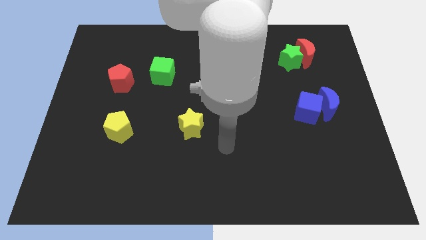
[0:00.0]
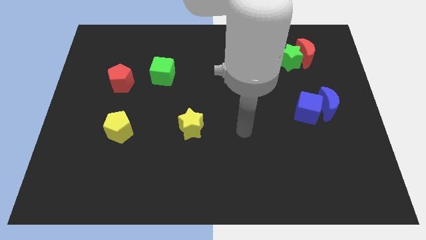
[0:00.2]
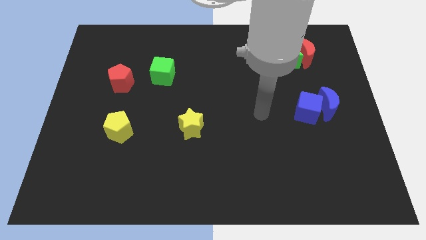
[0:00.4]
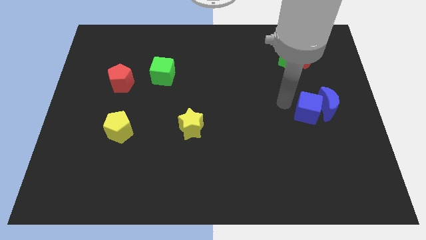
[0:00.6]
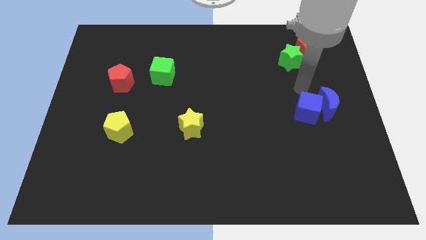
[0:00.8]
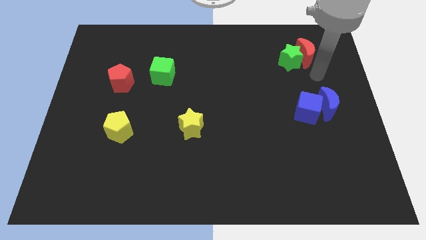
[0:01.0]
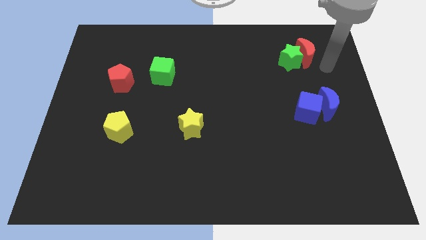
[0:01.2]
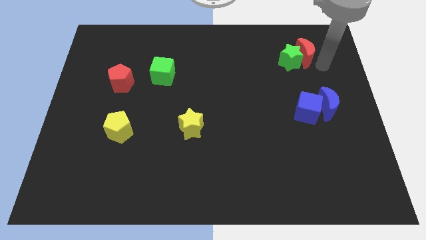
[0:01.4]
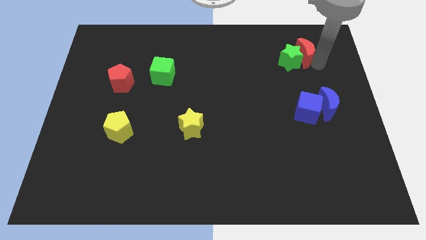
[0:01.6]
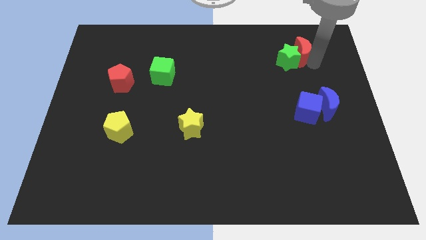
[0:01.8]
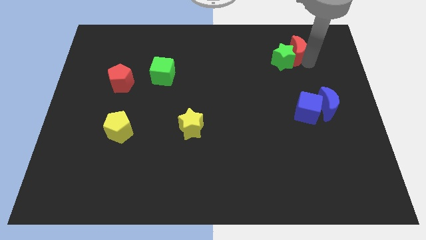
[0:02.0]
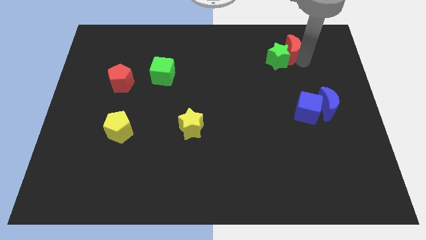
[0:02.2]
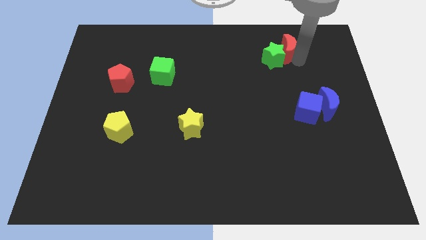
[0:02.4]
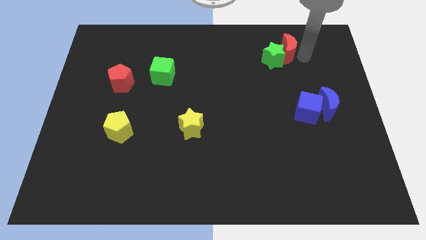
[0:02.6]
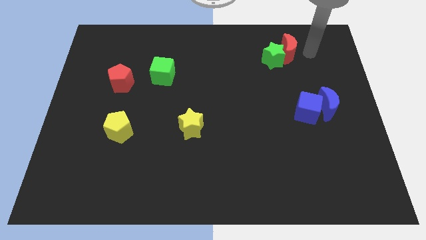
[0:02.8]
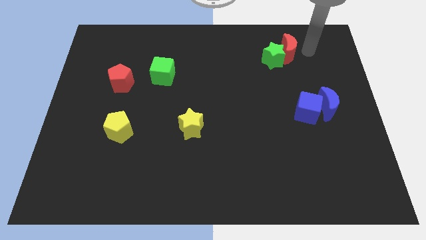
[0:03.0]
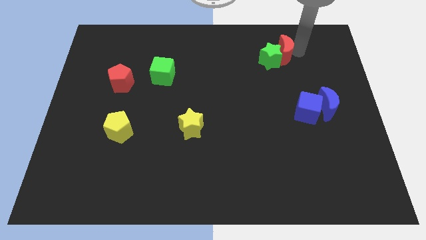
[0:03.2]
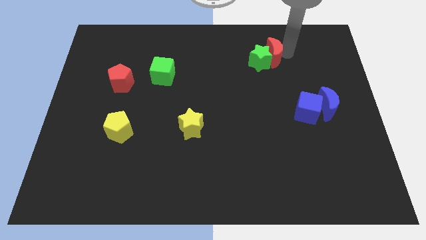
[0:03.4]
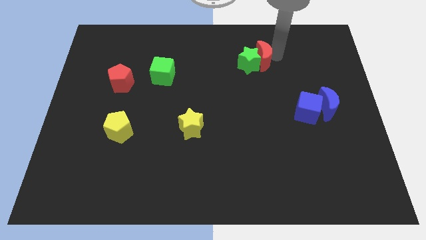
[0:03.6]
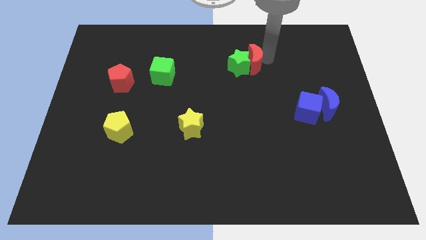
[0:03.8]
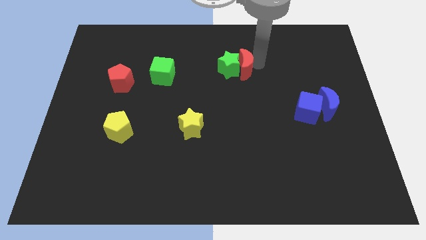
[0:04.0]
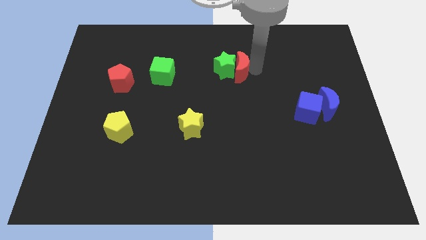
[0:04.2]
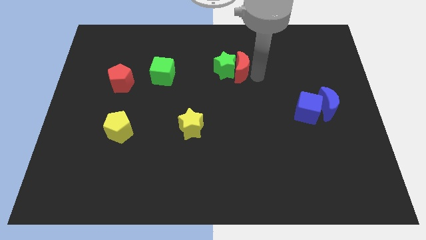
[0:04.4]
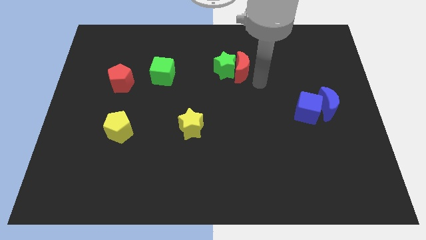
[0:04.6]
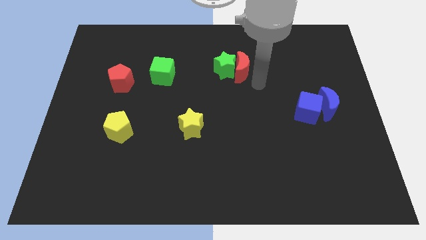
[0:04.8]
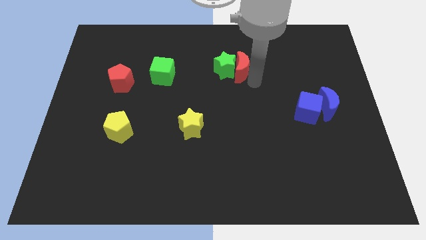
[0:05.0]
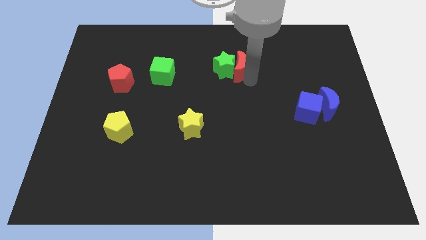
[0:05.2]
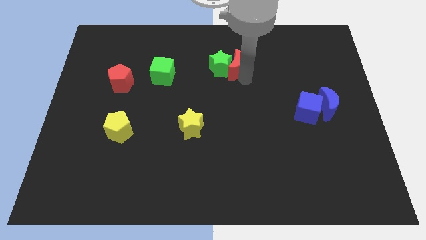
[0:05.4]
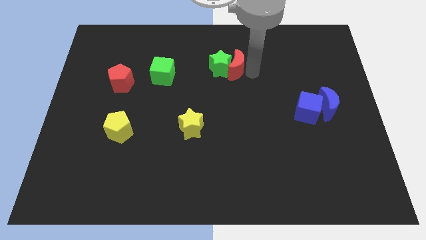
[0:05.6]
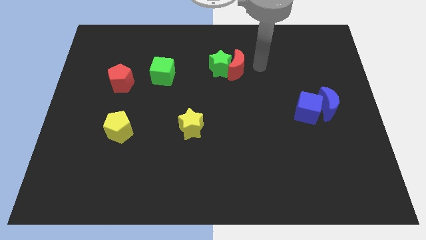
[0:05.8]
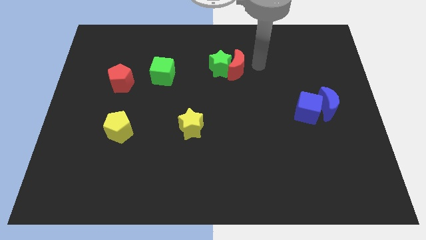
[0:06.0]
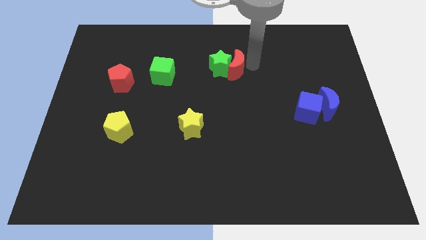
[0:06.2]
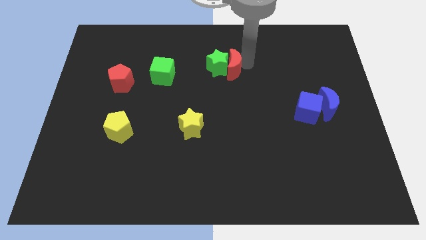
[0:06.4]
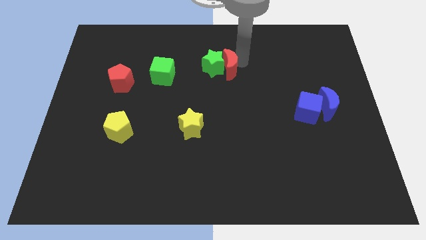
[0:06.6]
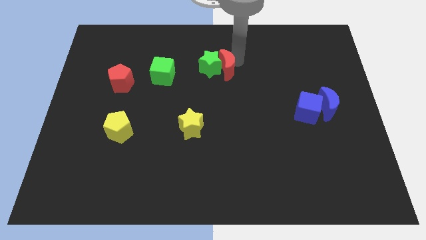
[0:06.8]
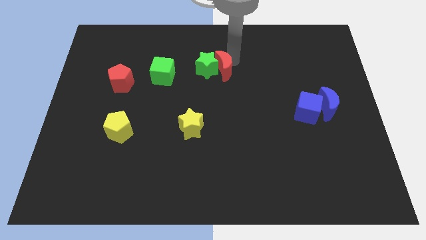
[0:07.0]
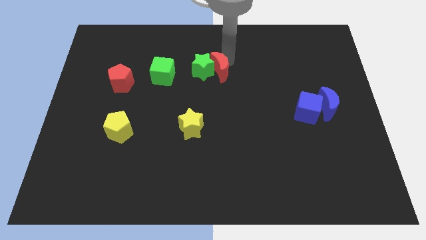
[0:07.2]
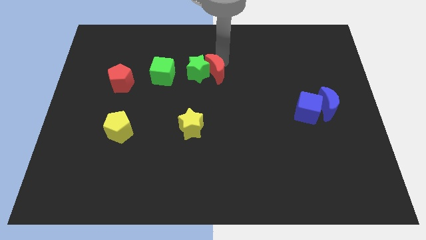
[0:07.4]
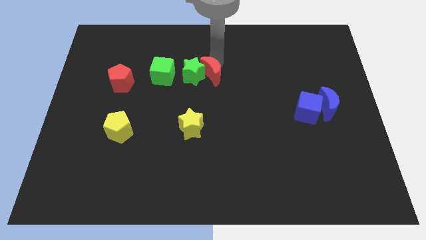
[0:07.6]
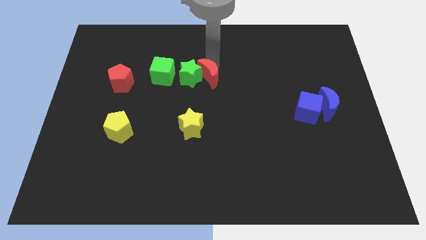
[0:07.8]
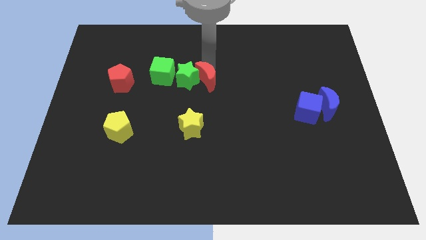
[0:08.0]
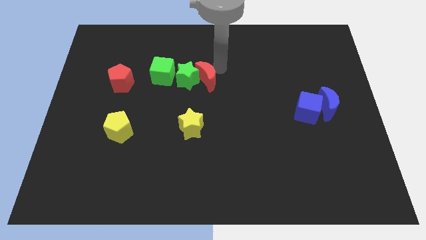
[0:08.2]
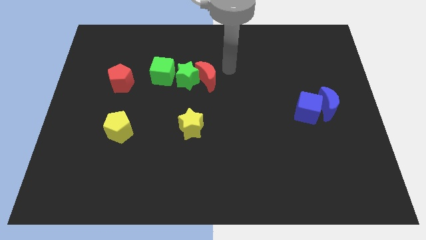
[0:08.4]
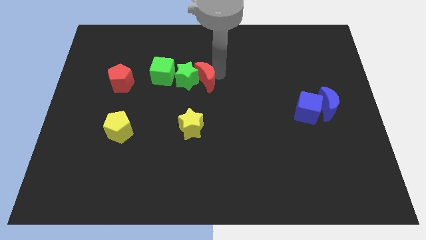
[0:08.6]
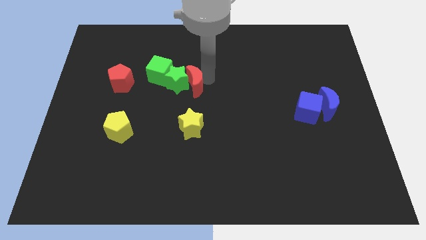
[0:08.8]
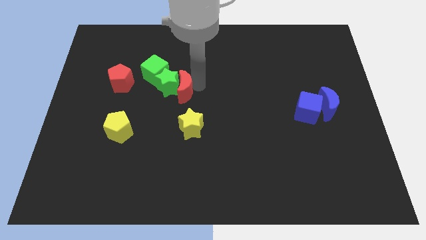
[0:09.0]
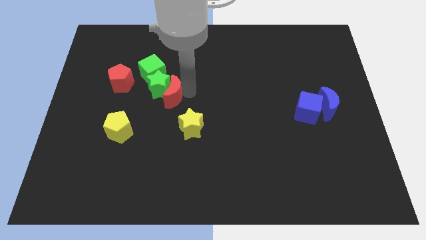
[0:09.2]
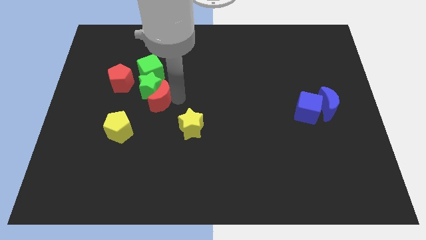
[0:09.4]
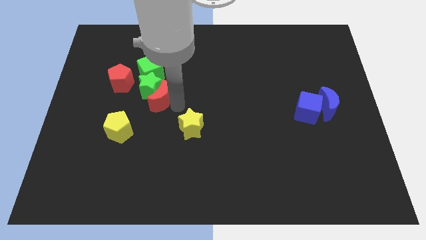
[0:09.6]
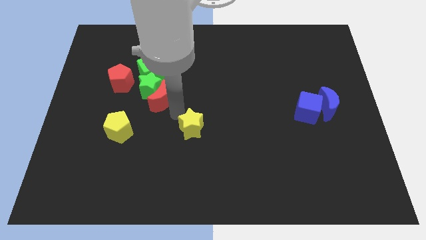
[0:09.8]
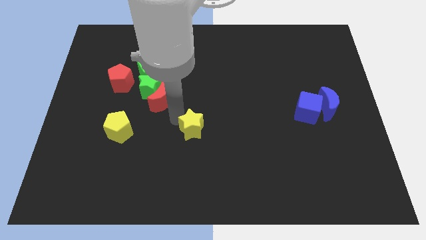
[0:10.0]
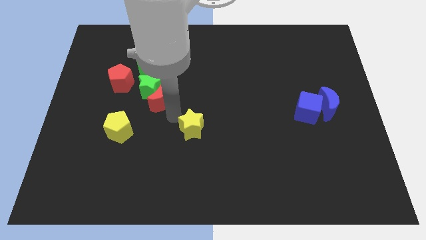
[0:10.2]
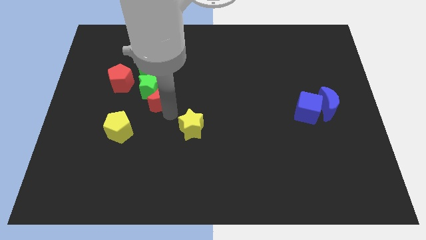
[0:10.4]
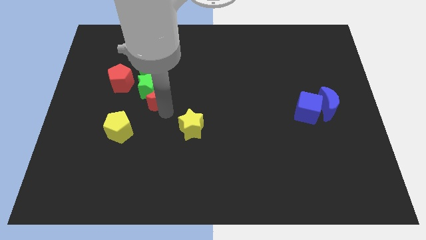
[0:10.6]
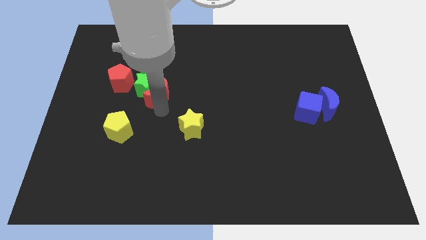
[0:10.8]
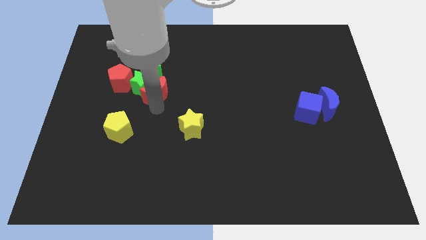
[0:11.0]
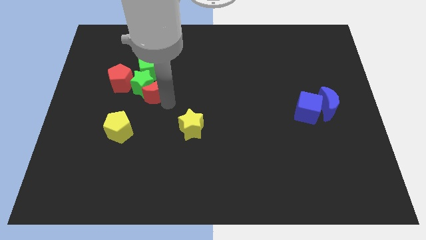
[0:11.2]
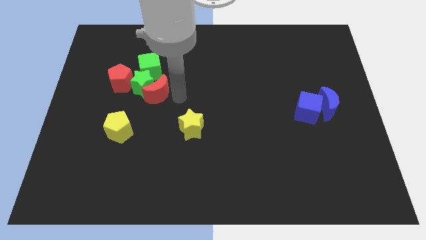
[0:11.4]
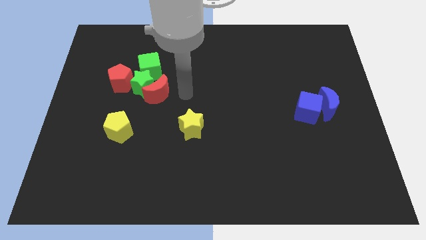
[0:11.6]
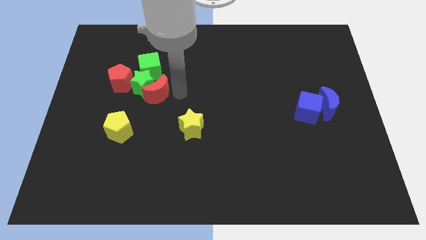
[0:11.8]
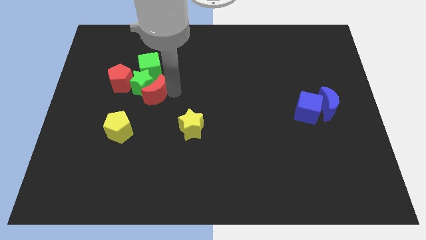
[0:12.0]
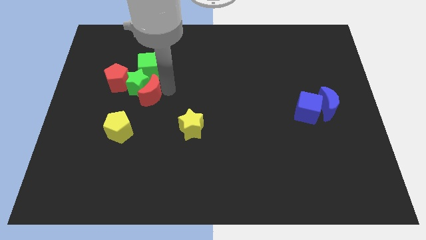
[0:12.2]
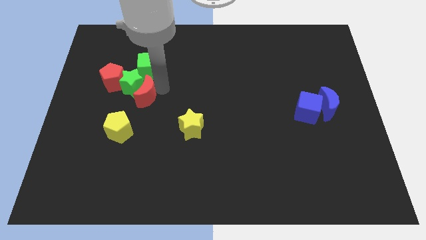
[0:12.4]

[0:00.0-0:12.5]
slide the red moon above the yellow pentagon
